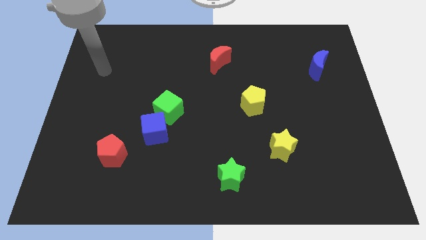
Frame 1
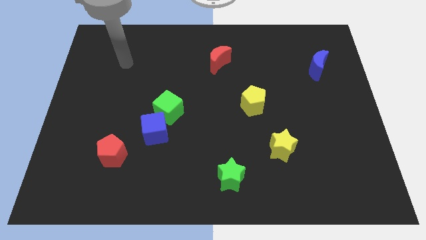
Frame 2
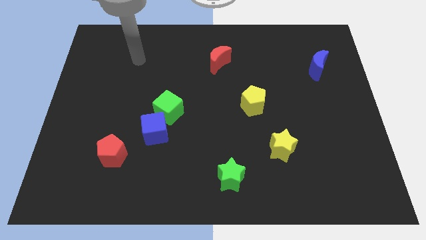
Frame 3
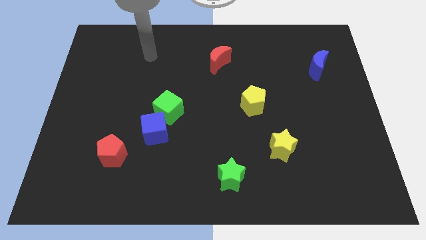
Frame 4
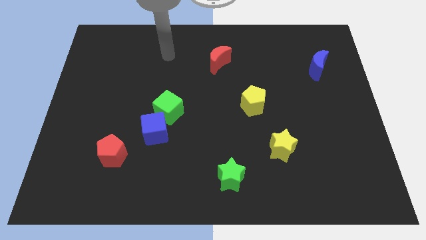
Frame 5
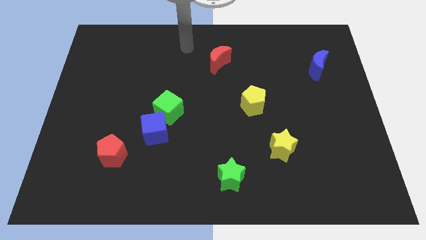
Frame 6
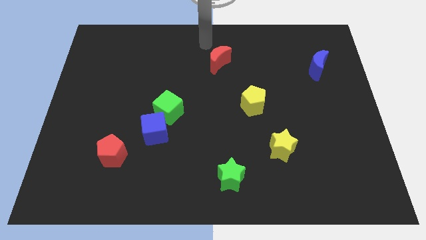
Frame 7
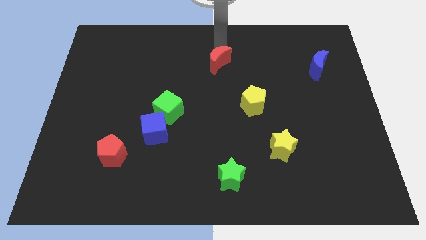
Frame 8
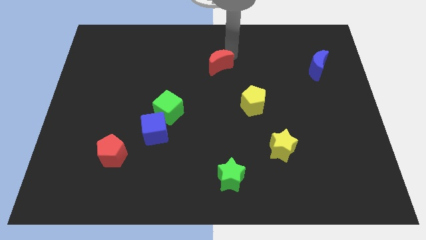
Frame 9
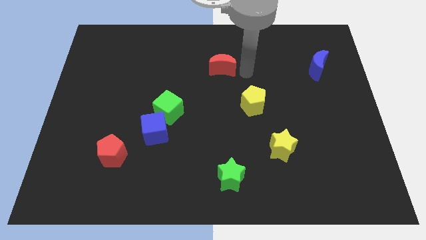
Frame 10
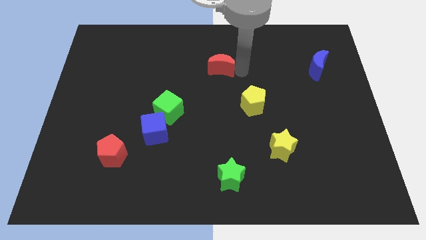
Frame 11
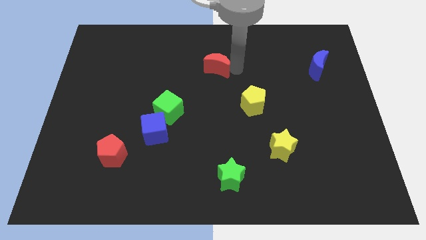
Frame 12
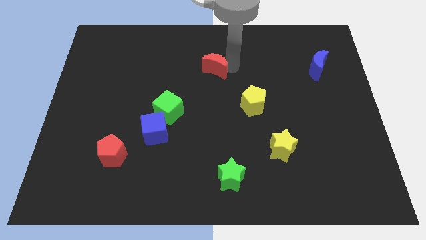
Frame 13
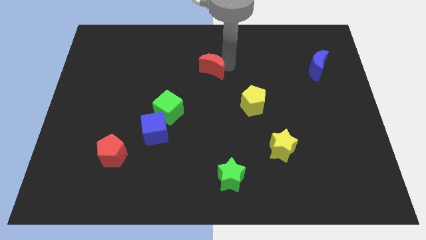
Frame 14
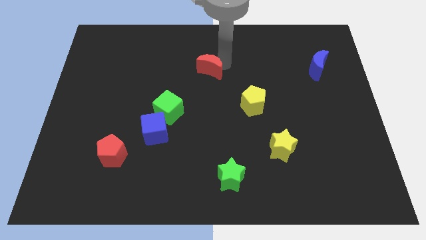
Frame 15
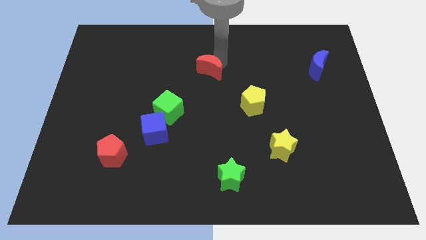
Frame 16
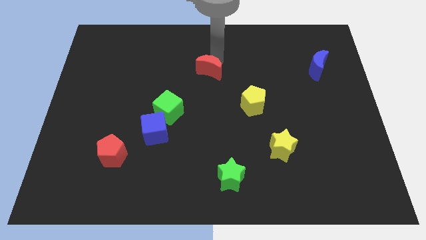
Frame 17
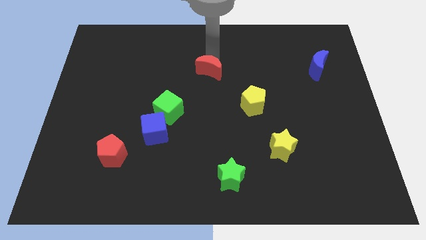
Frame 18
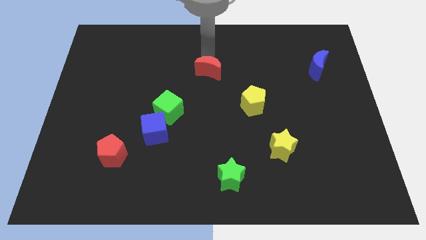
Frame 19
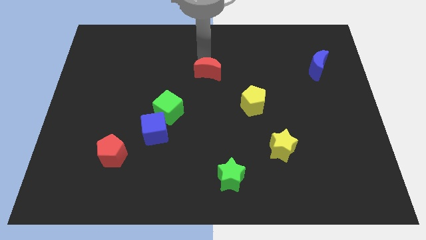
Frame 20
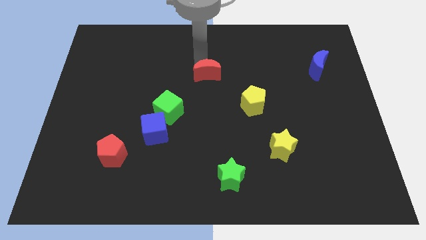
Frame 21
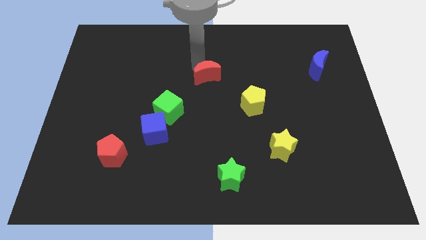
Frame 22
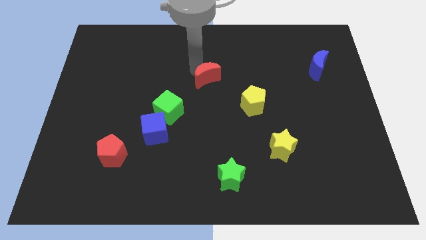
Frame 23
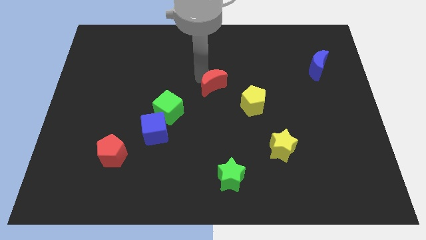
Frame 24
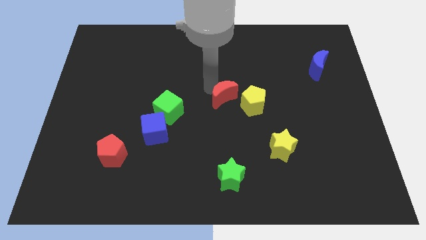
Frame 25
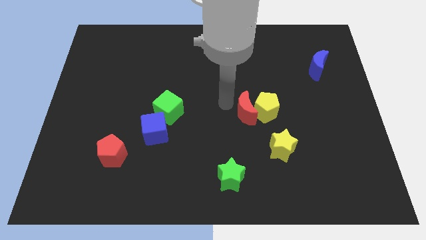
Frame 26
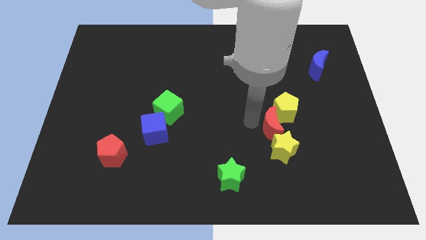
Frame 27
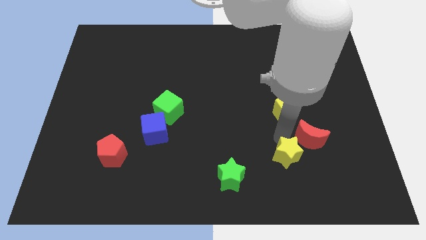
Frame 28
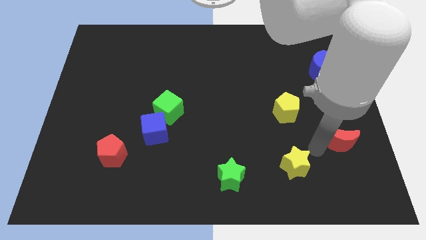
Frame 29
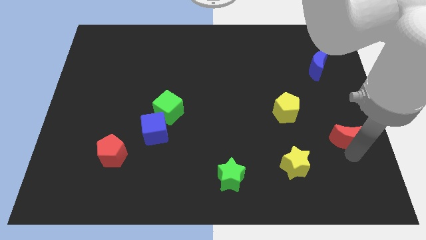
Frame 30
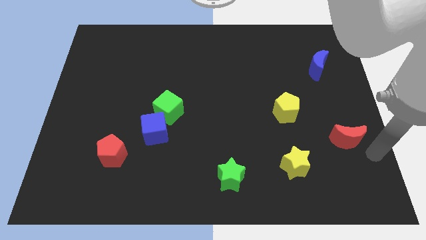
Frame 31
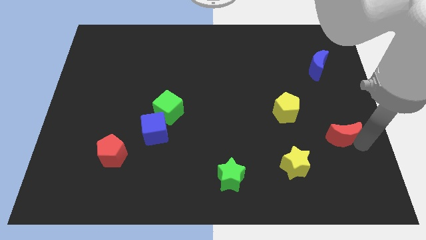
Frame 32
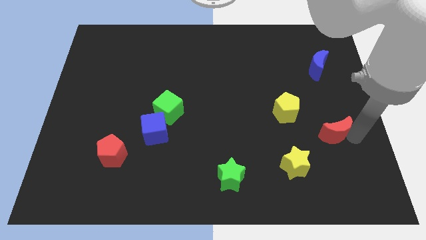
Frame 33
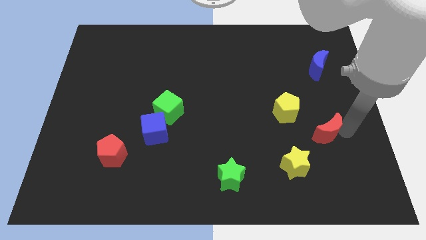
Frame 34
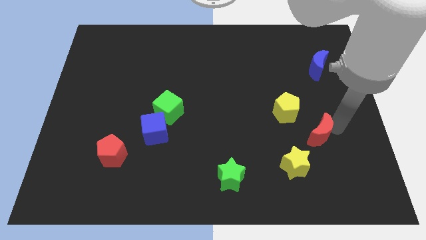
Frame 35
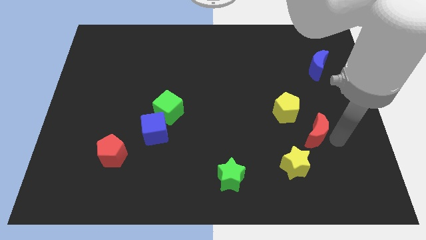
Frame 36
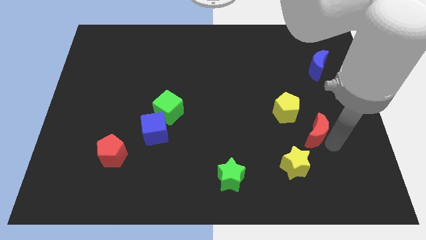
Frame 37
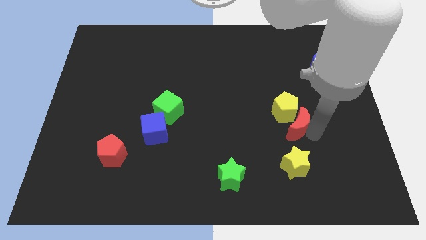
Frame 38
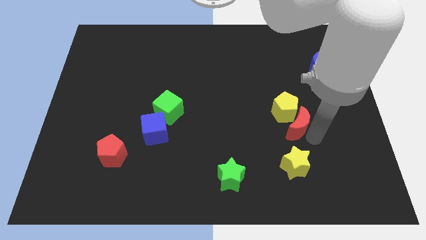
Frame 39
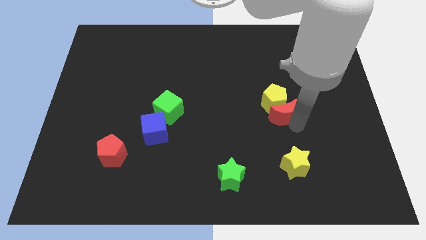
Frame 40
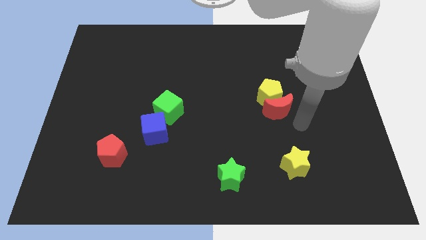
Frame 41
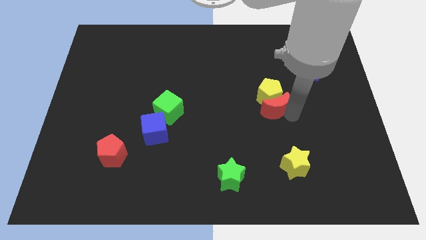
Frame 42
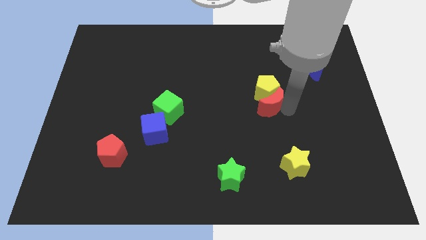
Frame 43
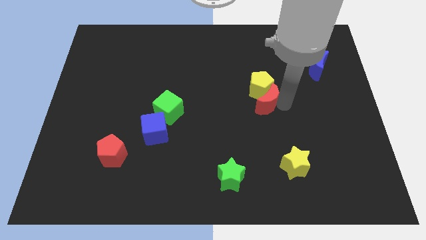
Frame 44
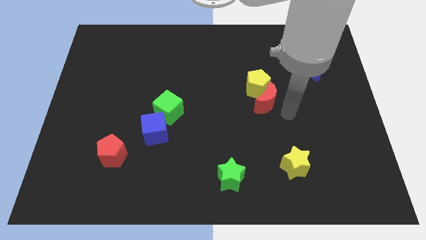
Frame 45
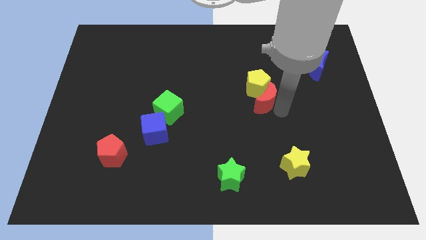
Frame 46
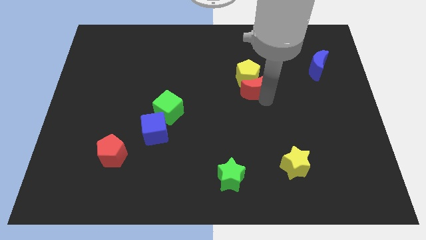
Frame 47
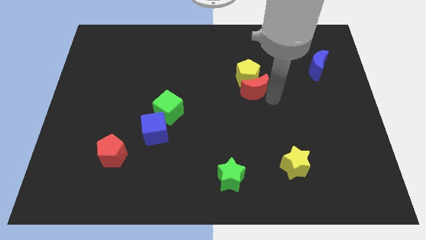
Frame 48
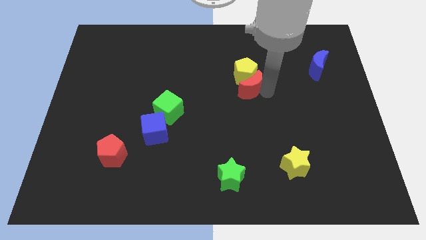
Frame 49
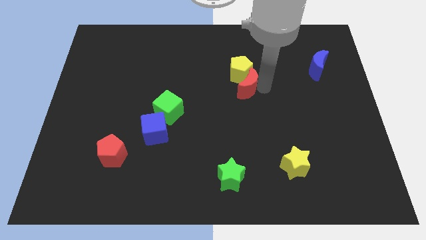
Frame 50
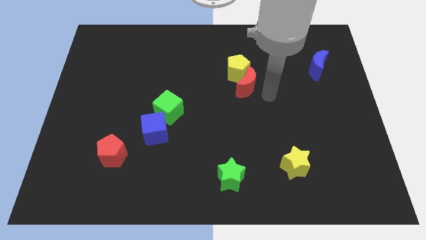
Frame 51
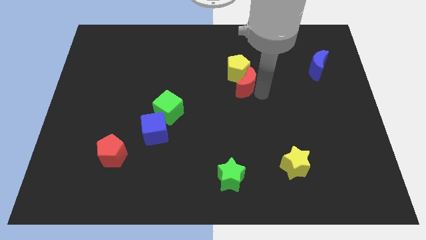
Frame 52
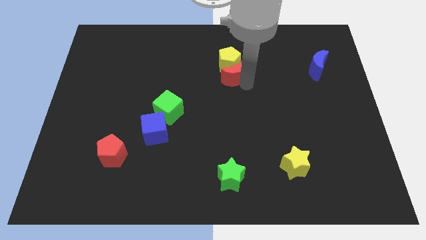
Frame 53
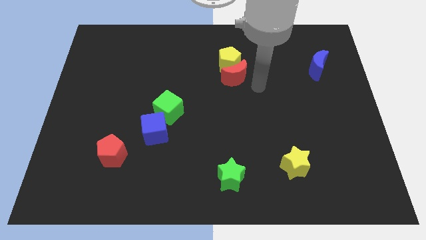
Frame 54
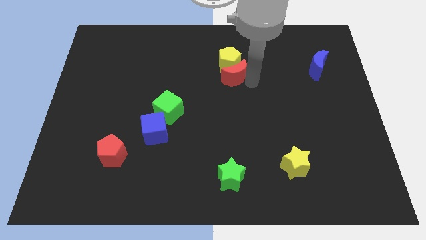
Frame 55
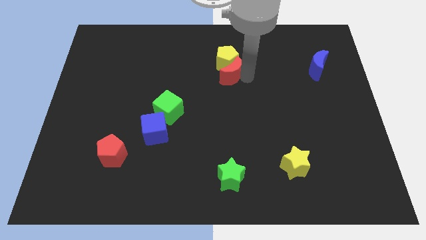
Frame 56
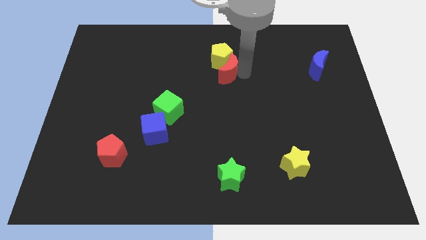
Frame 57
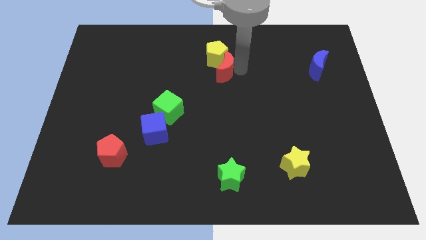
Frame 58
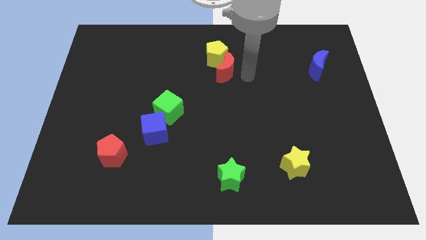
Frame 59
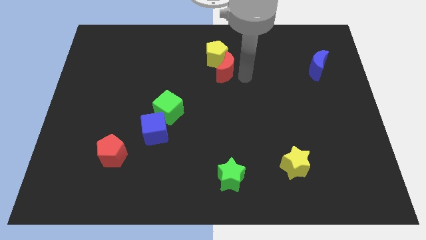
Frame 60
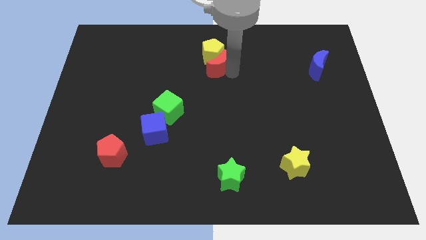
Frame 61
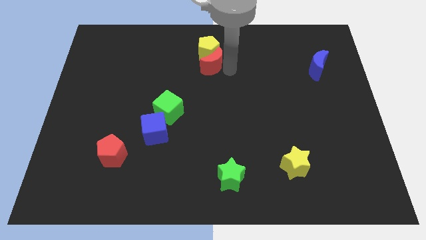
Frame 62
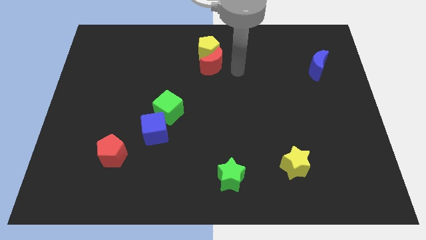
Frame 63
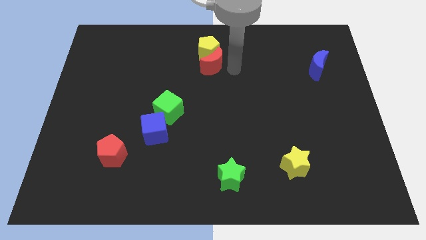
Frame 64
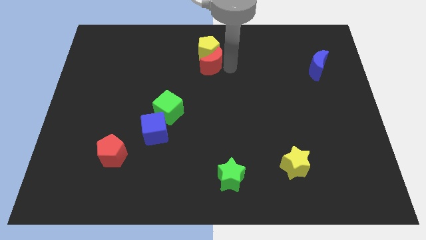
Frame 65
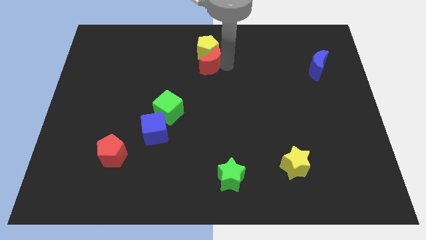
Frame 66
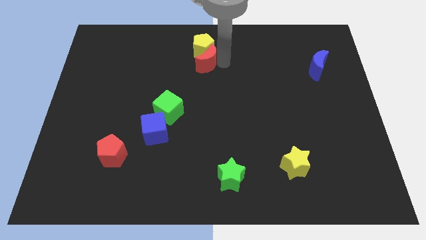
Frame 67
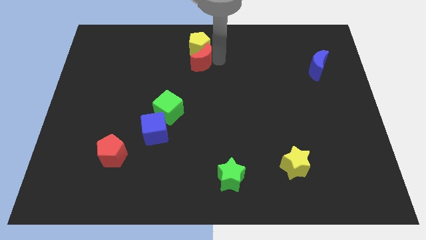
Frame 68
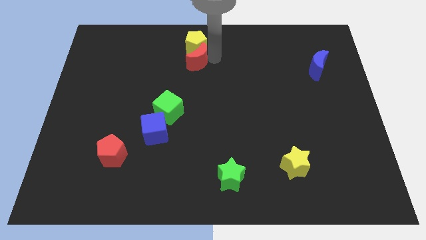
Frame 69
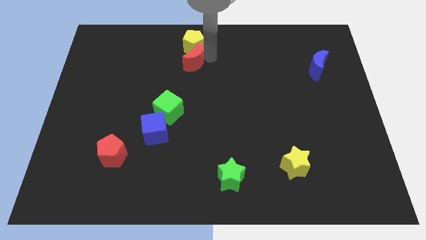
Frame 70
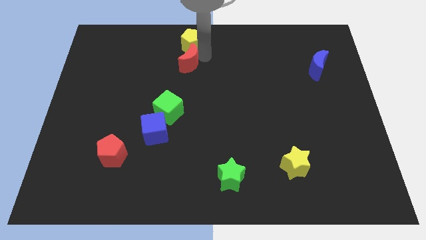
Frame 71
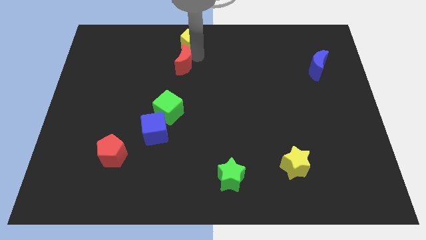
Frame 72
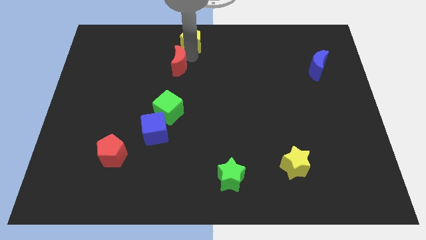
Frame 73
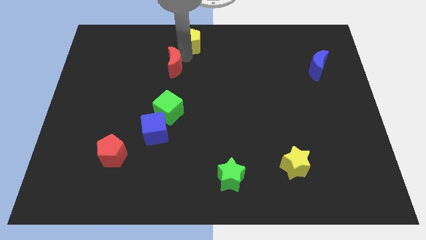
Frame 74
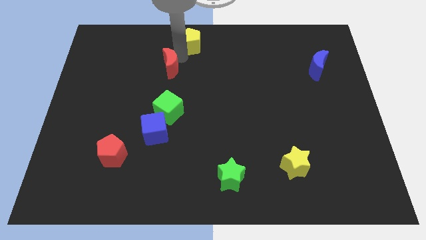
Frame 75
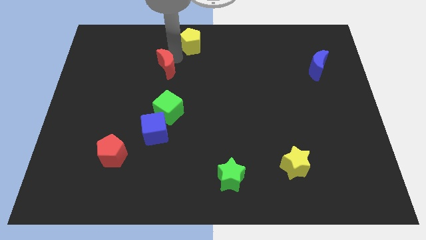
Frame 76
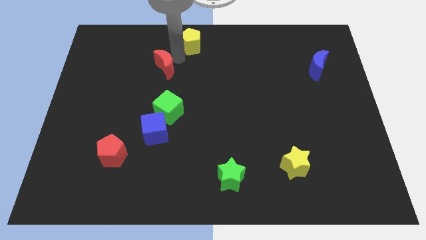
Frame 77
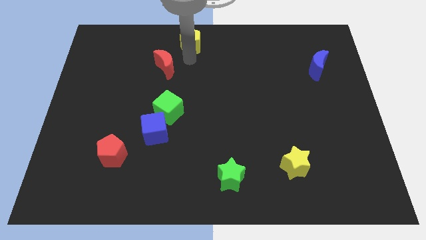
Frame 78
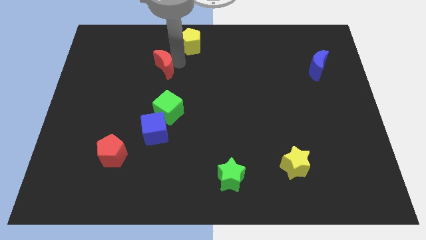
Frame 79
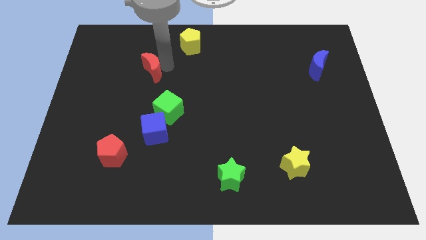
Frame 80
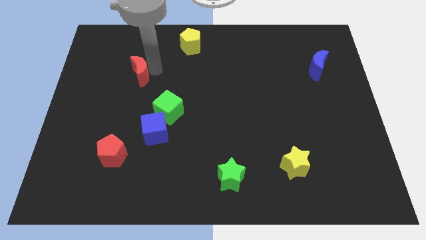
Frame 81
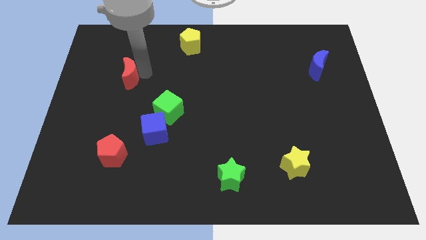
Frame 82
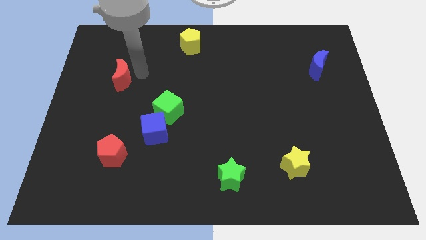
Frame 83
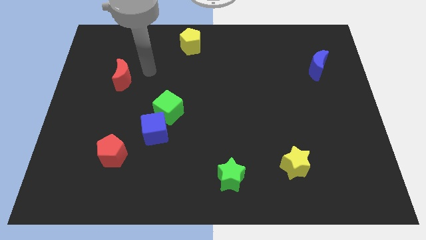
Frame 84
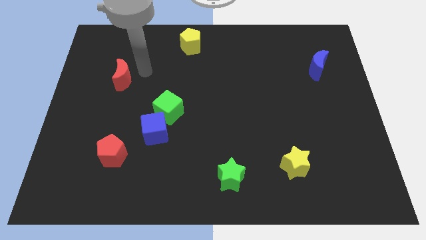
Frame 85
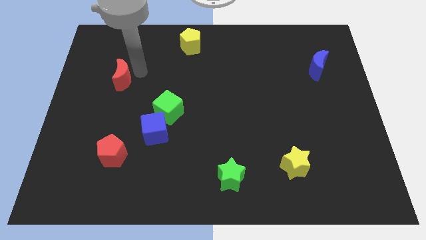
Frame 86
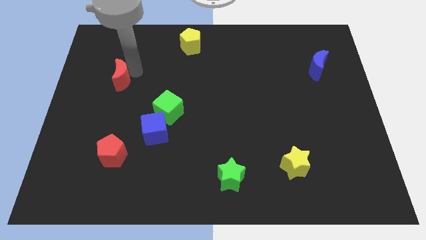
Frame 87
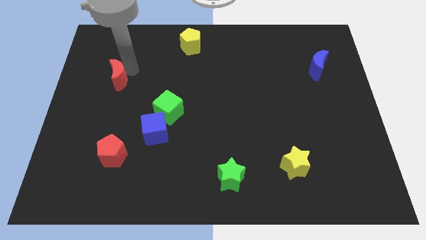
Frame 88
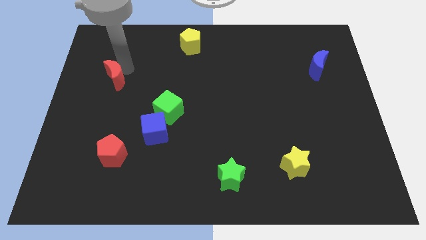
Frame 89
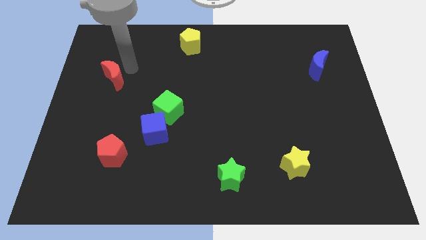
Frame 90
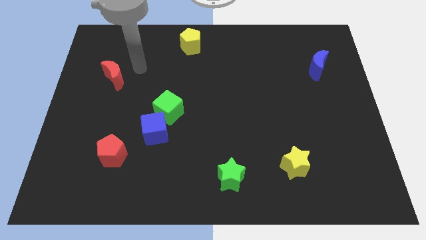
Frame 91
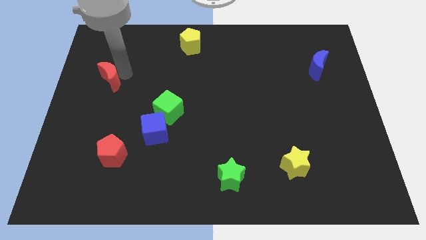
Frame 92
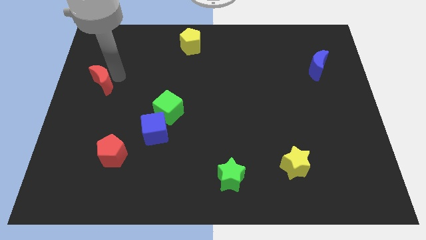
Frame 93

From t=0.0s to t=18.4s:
push the red moon to the left side of the board
